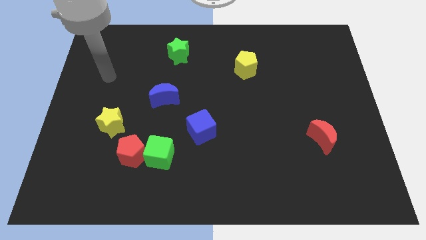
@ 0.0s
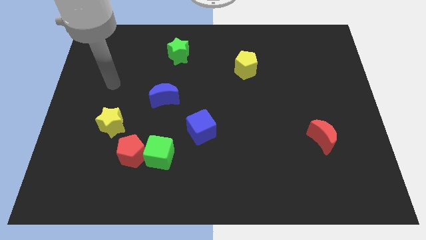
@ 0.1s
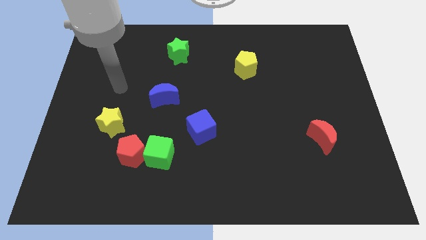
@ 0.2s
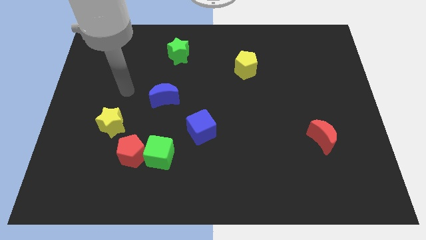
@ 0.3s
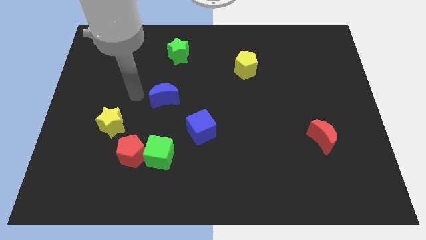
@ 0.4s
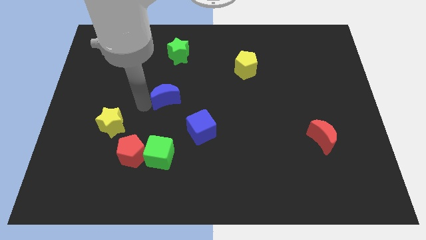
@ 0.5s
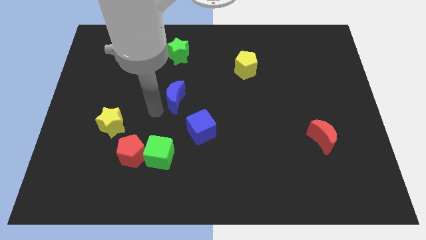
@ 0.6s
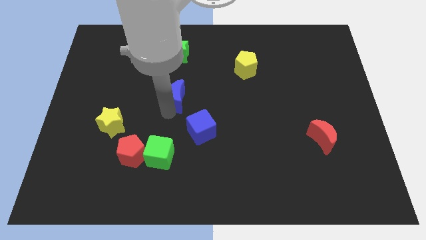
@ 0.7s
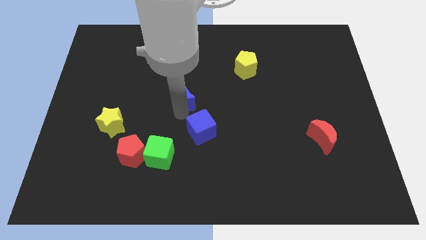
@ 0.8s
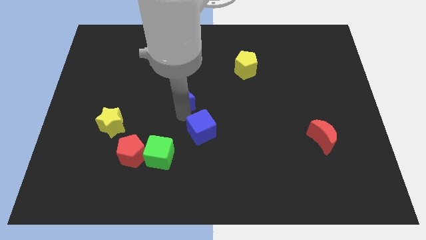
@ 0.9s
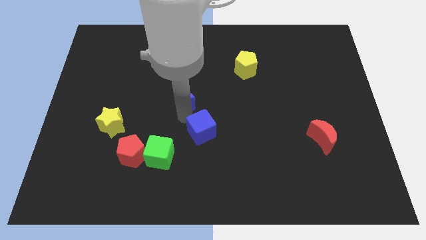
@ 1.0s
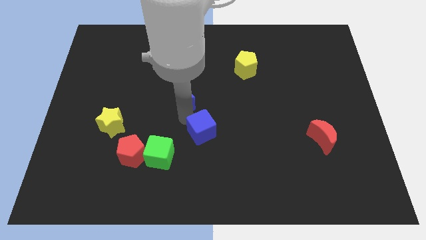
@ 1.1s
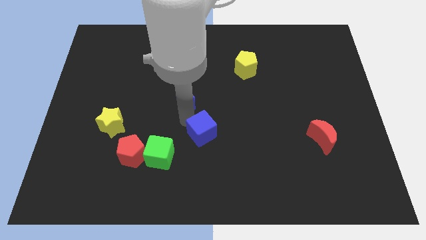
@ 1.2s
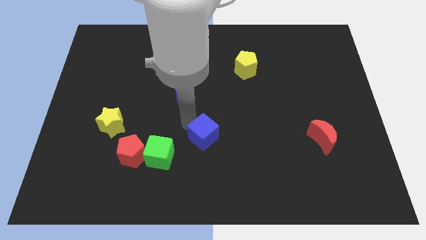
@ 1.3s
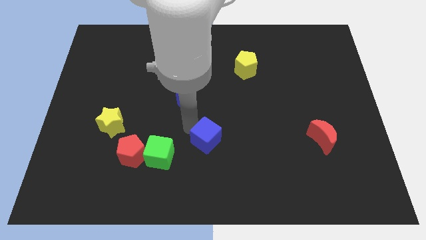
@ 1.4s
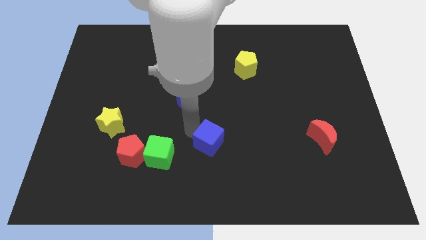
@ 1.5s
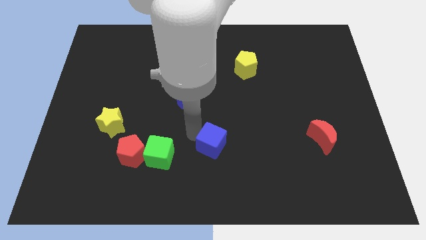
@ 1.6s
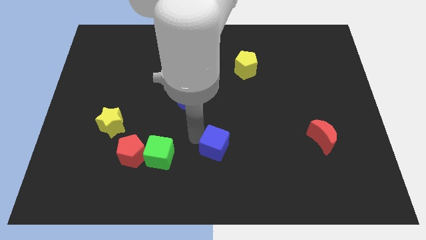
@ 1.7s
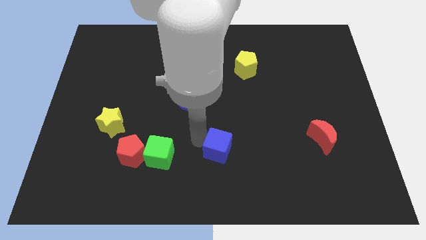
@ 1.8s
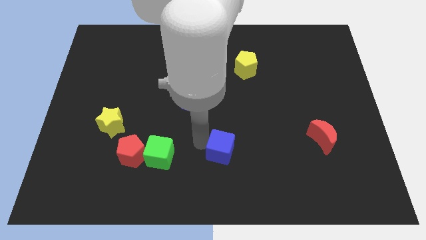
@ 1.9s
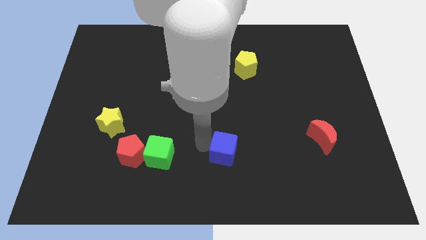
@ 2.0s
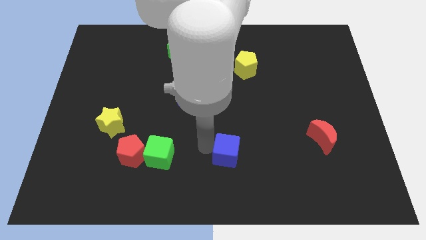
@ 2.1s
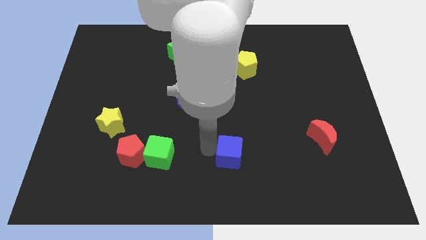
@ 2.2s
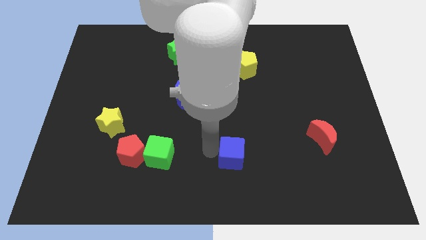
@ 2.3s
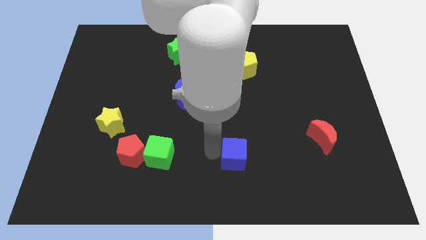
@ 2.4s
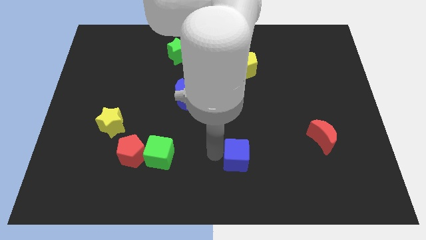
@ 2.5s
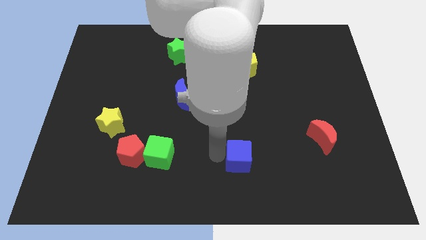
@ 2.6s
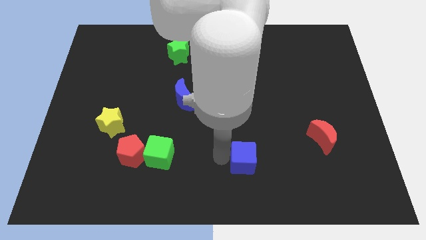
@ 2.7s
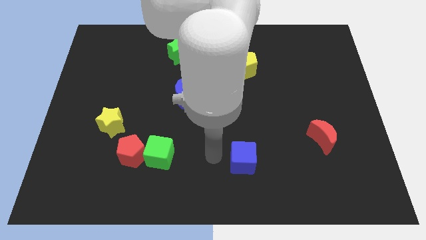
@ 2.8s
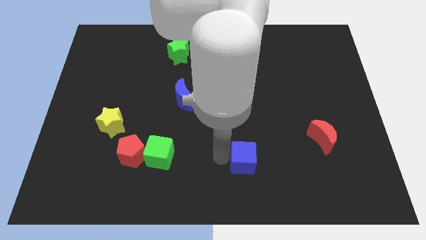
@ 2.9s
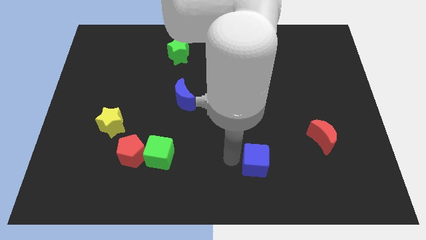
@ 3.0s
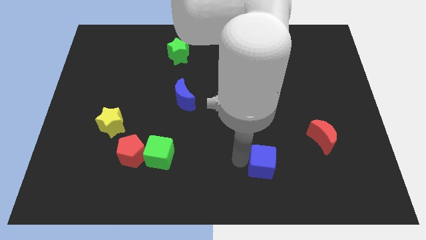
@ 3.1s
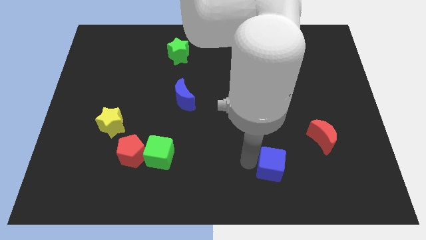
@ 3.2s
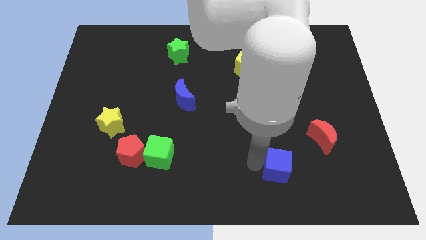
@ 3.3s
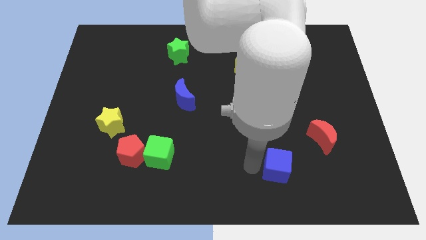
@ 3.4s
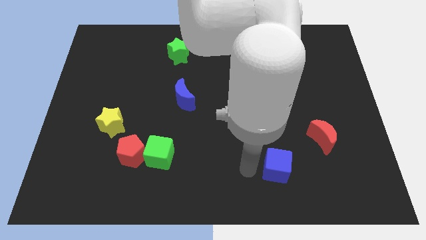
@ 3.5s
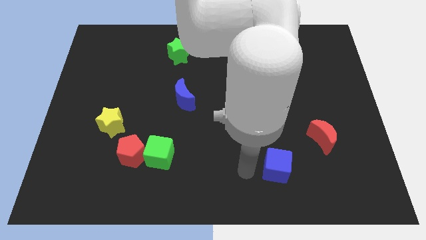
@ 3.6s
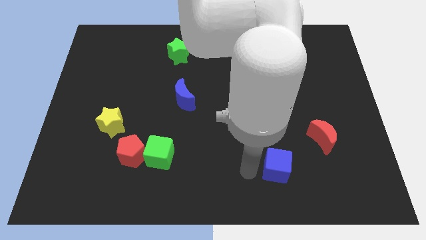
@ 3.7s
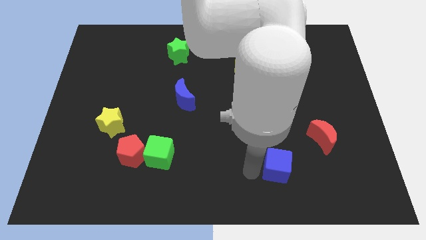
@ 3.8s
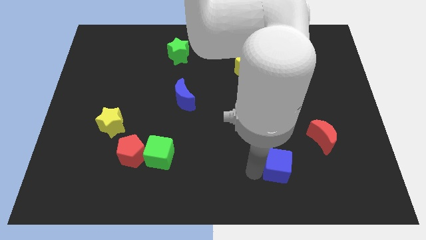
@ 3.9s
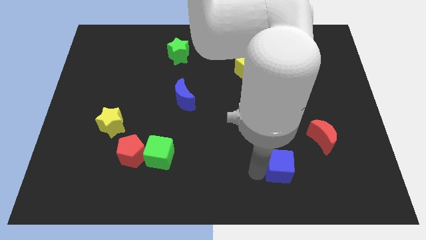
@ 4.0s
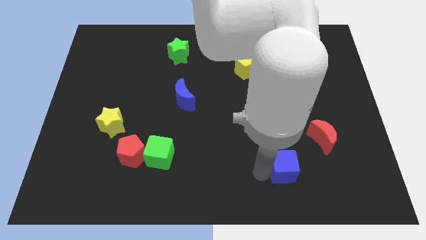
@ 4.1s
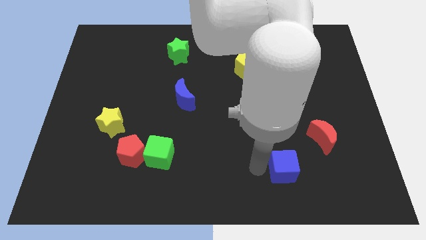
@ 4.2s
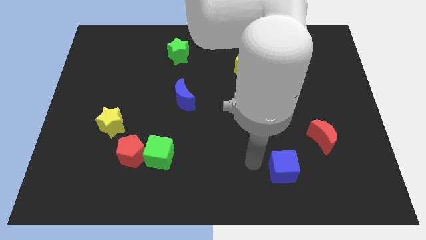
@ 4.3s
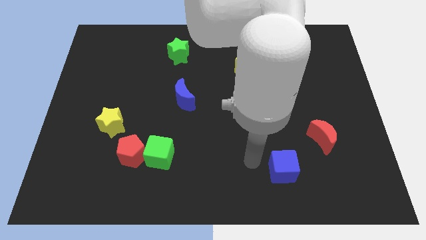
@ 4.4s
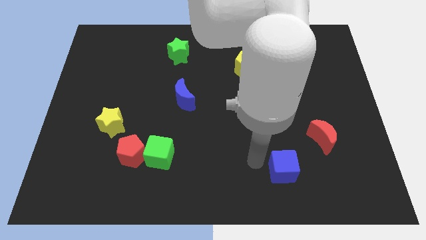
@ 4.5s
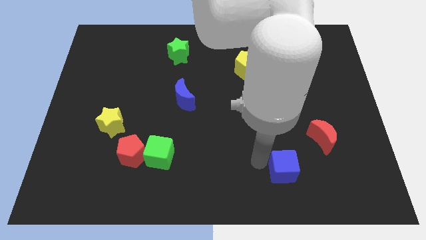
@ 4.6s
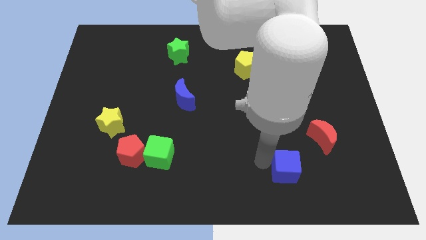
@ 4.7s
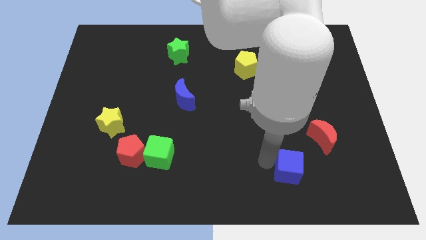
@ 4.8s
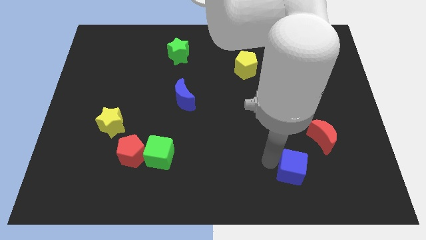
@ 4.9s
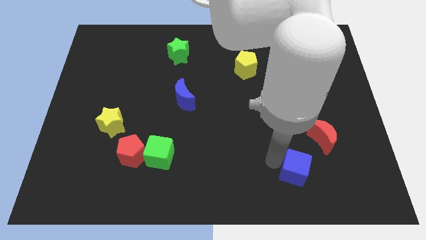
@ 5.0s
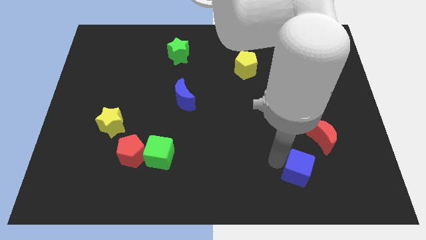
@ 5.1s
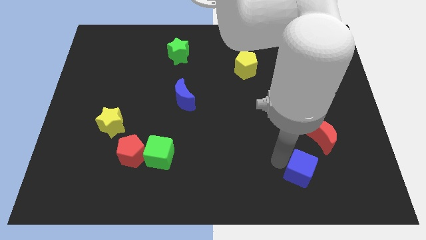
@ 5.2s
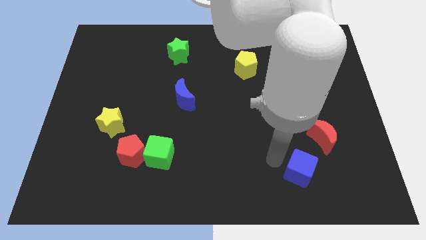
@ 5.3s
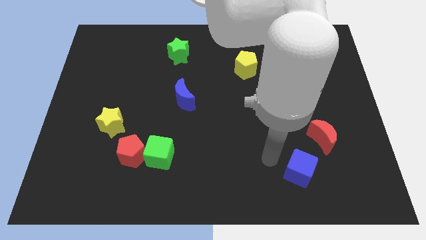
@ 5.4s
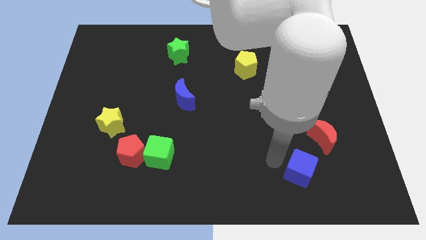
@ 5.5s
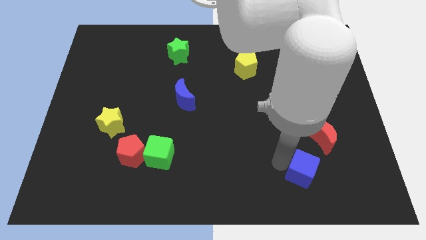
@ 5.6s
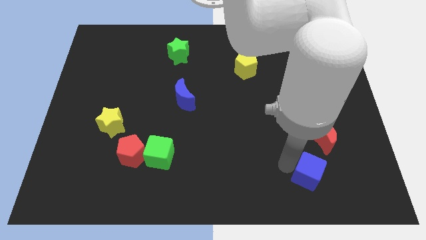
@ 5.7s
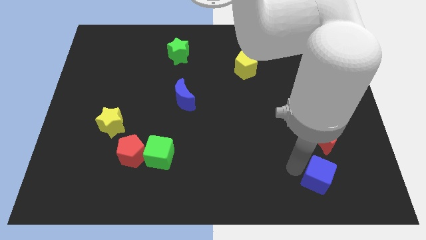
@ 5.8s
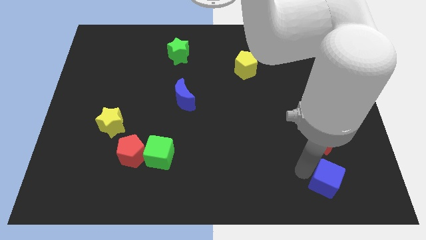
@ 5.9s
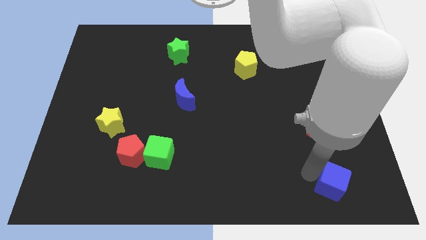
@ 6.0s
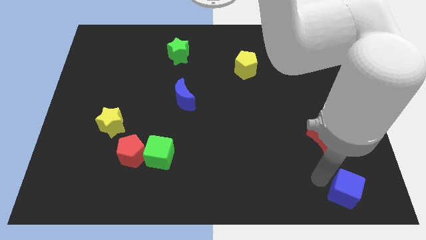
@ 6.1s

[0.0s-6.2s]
slide the blue cube to the bottom right corner

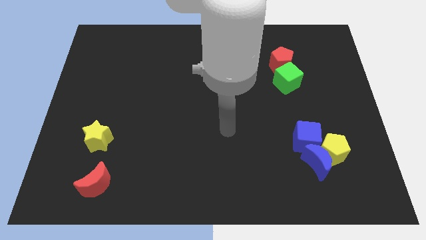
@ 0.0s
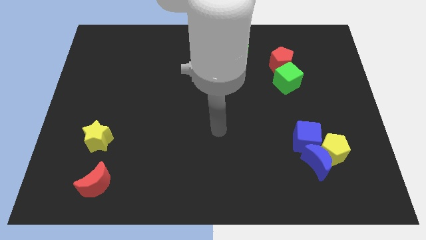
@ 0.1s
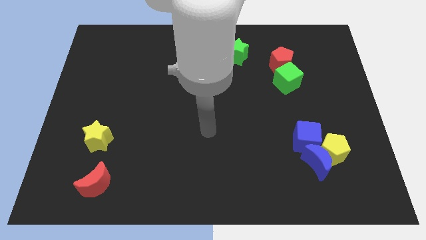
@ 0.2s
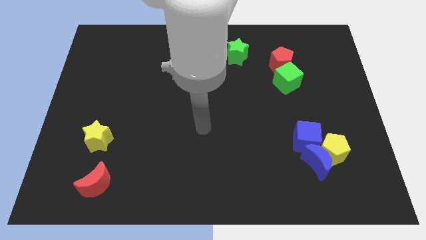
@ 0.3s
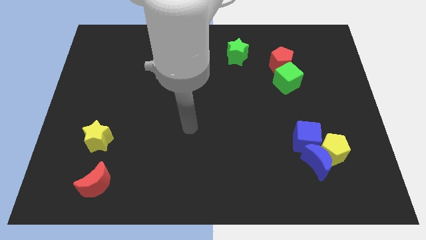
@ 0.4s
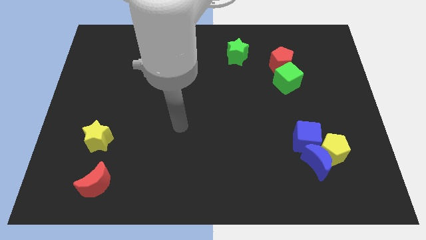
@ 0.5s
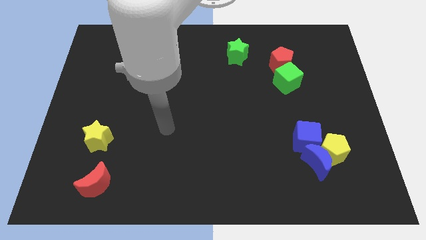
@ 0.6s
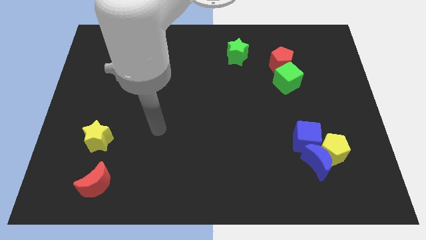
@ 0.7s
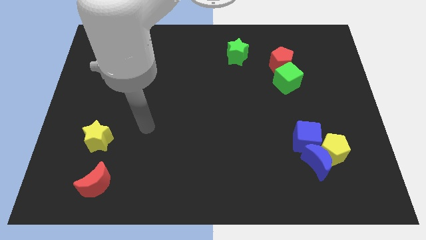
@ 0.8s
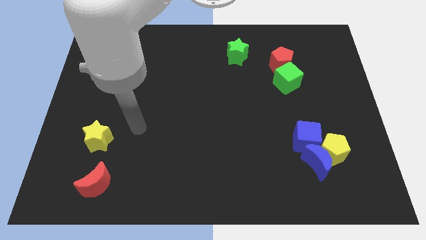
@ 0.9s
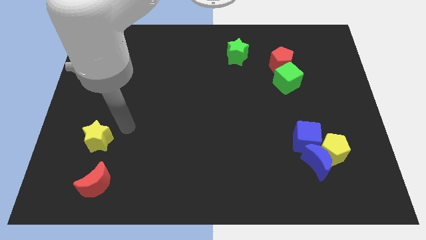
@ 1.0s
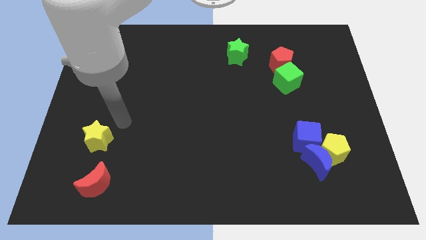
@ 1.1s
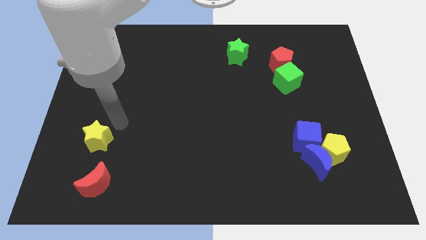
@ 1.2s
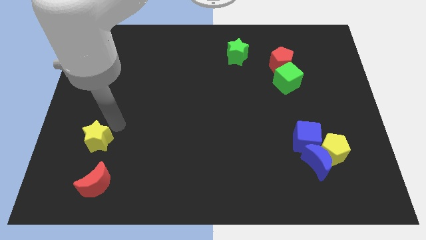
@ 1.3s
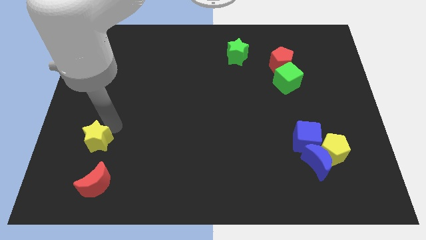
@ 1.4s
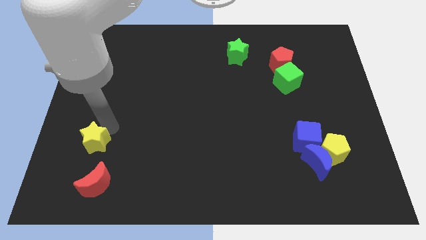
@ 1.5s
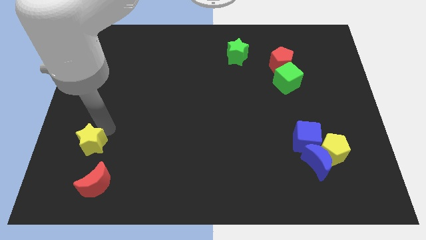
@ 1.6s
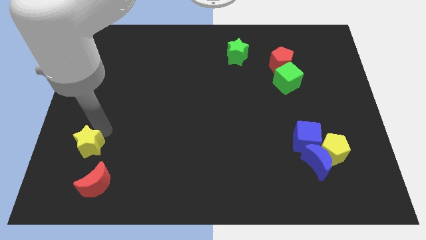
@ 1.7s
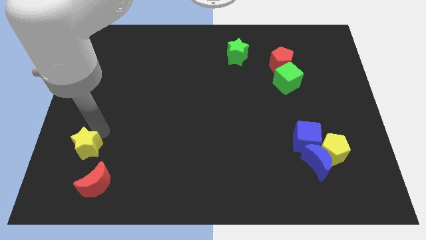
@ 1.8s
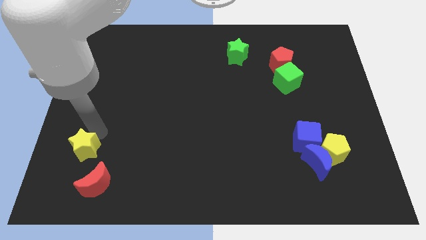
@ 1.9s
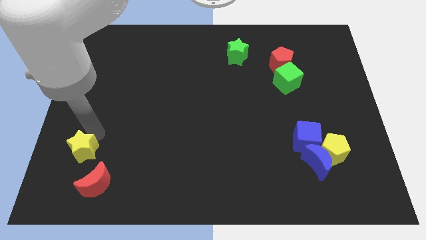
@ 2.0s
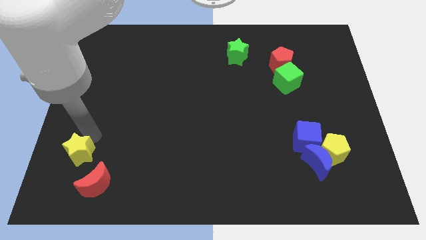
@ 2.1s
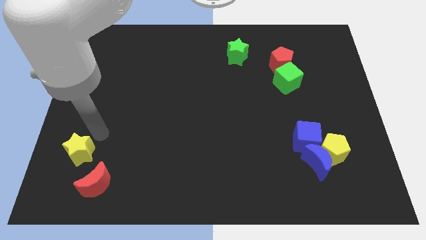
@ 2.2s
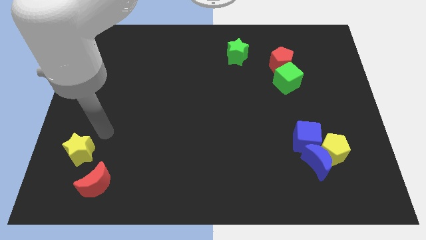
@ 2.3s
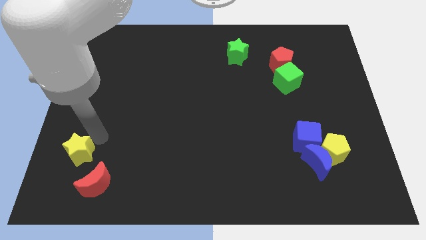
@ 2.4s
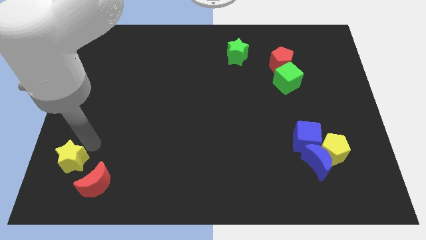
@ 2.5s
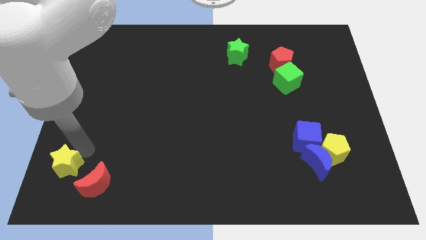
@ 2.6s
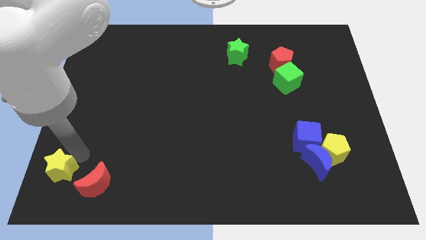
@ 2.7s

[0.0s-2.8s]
move the yellow star to the bottom left
